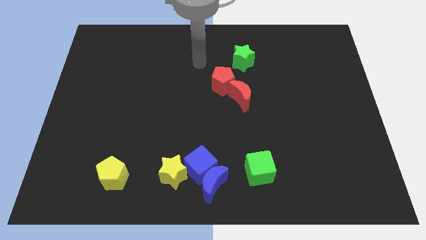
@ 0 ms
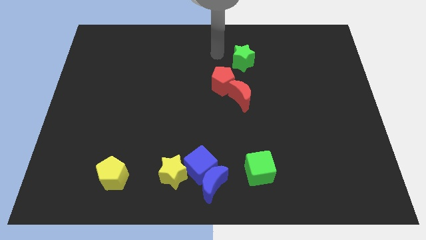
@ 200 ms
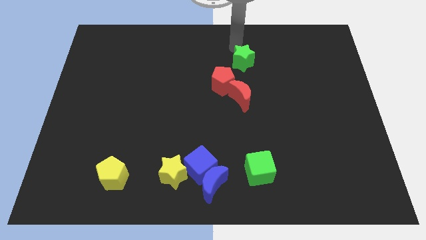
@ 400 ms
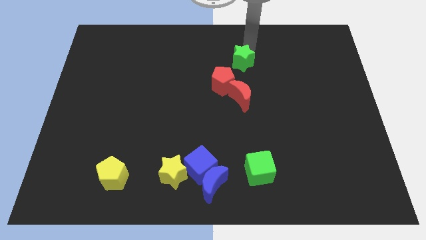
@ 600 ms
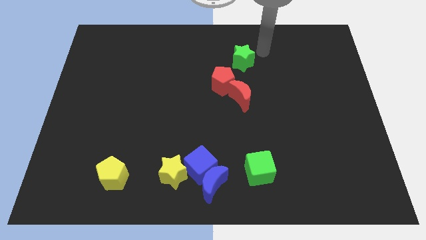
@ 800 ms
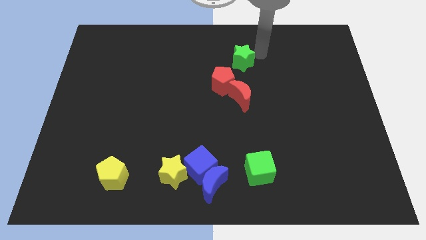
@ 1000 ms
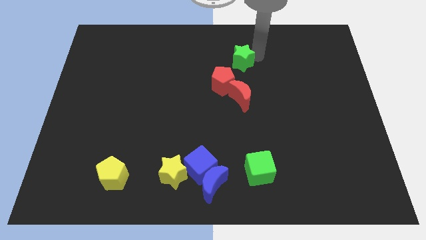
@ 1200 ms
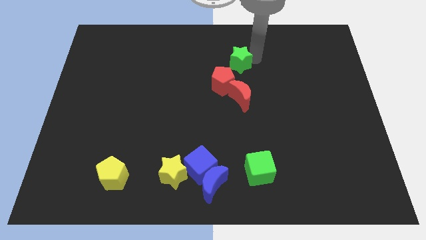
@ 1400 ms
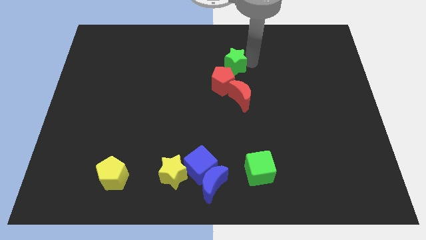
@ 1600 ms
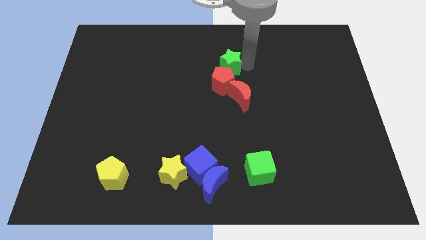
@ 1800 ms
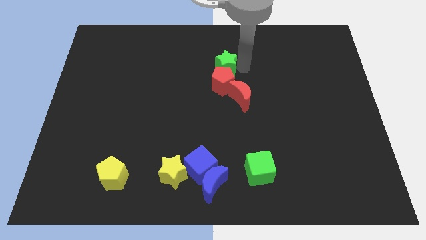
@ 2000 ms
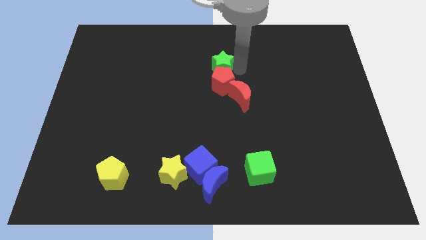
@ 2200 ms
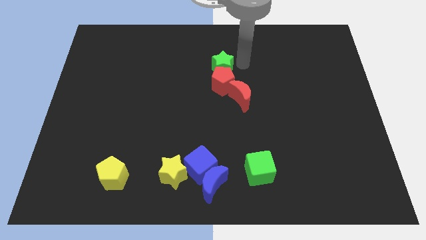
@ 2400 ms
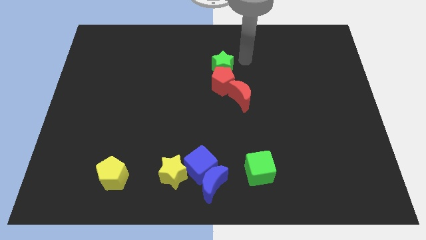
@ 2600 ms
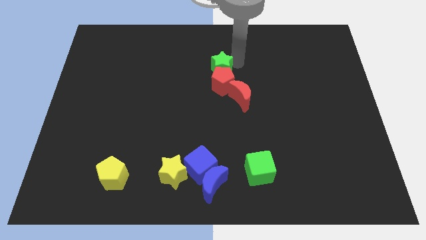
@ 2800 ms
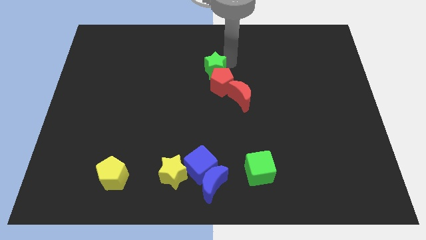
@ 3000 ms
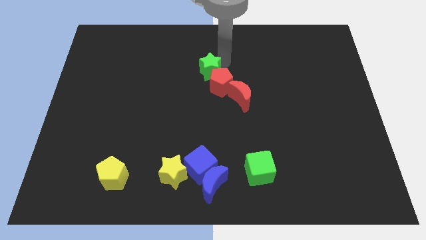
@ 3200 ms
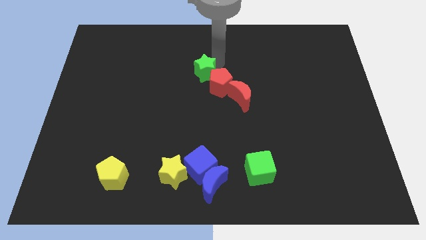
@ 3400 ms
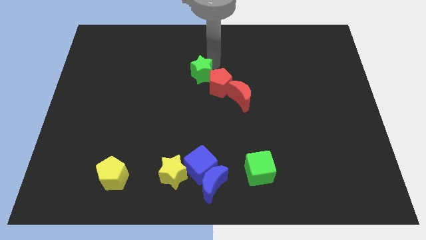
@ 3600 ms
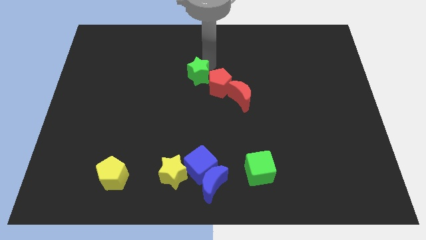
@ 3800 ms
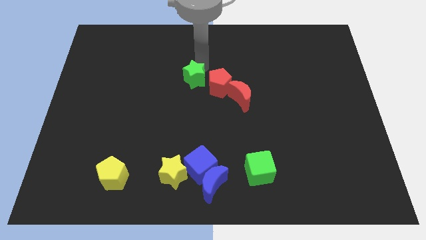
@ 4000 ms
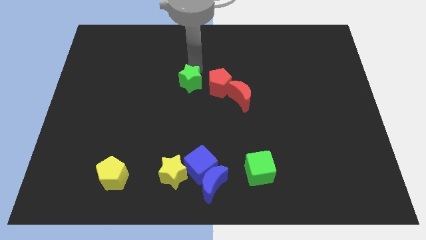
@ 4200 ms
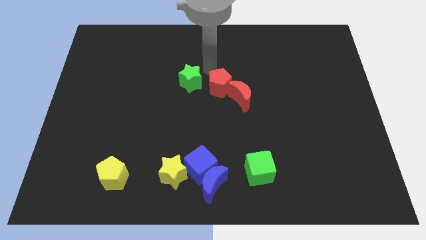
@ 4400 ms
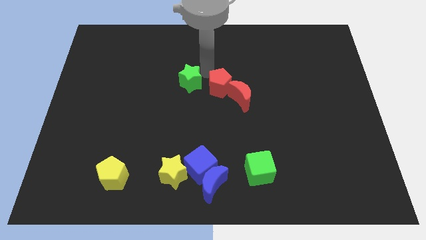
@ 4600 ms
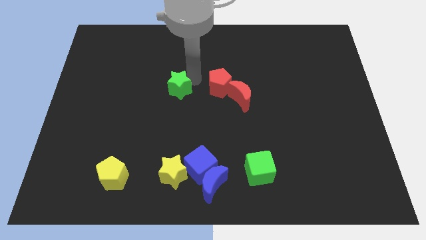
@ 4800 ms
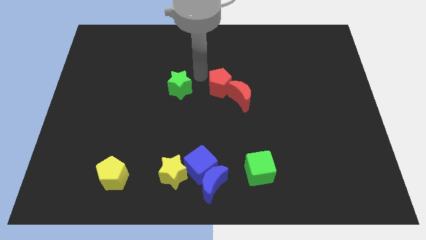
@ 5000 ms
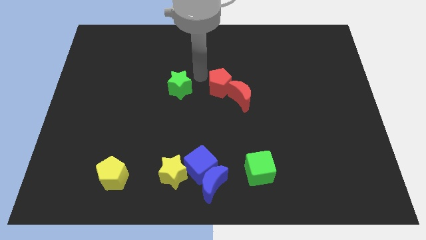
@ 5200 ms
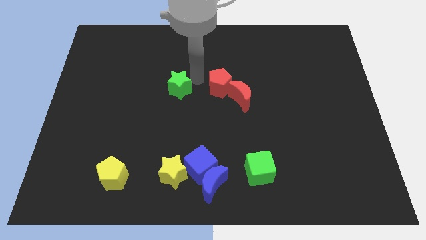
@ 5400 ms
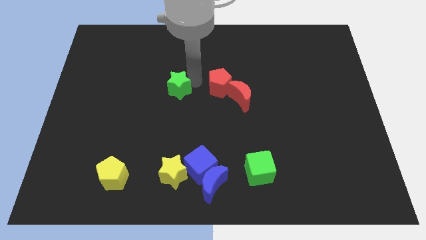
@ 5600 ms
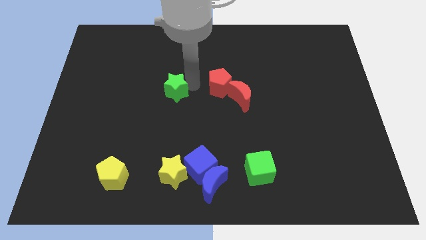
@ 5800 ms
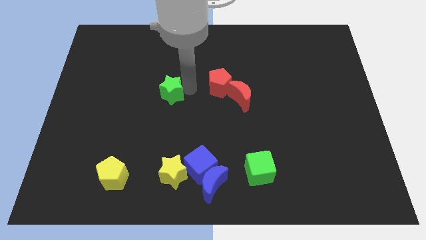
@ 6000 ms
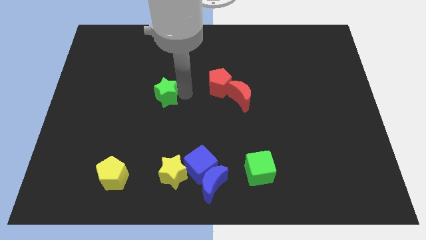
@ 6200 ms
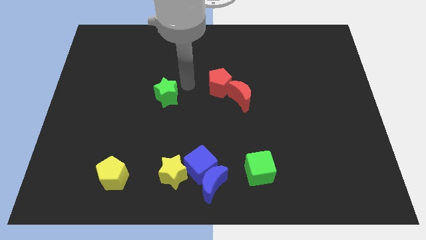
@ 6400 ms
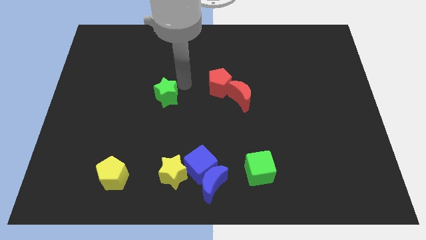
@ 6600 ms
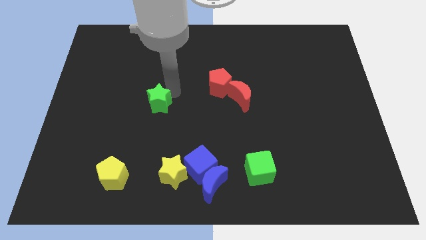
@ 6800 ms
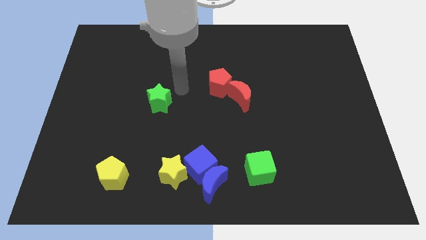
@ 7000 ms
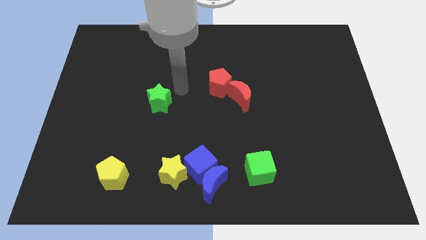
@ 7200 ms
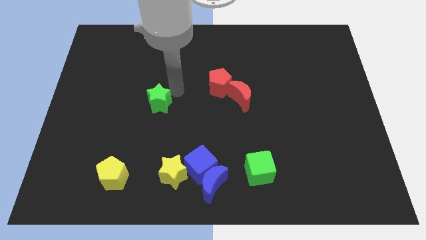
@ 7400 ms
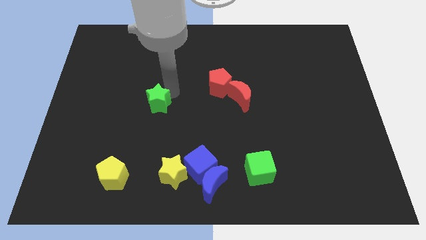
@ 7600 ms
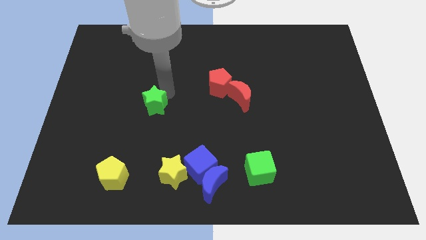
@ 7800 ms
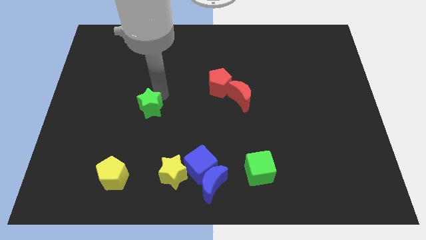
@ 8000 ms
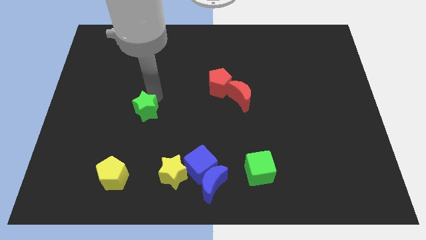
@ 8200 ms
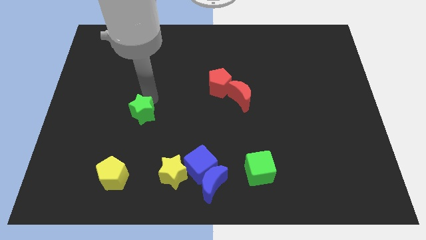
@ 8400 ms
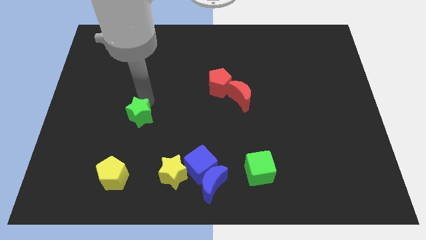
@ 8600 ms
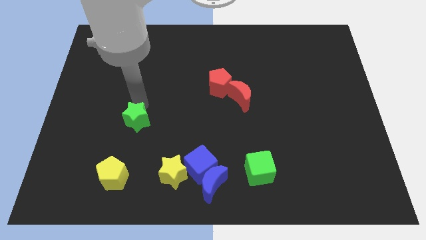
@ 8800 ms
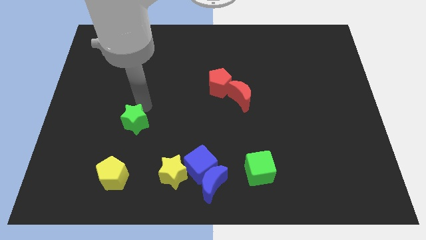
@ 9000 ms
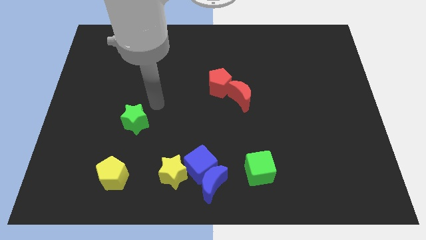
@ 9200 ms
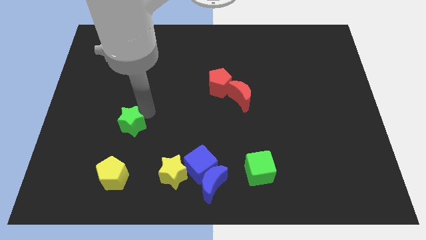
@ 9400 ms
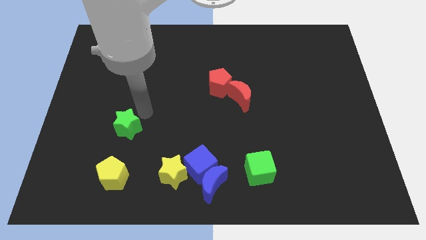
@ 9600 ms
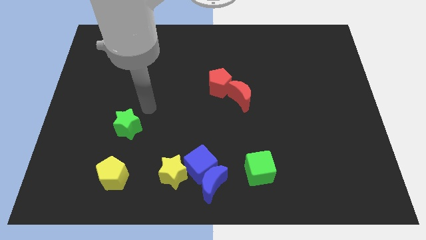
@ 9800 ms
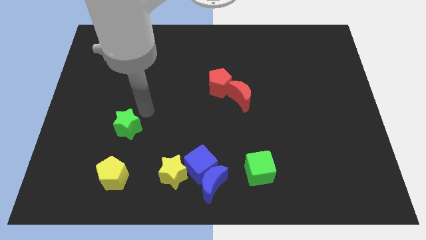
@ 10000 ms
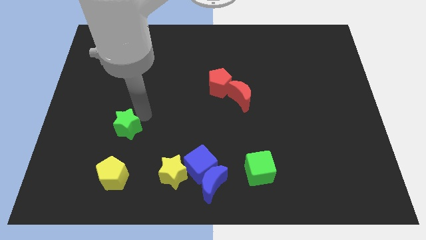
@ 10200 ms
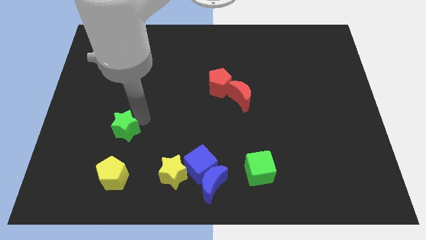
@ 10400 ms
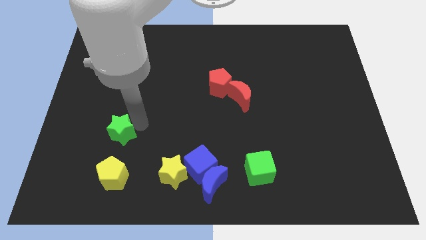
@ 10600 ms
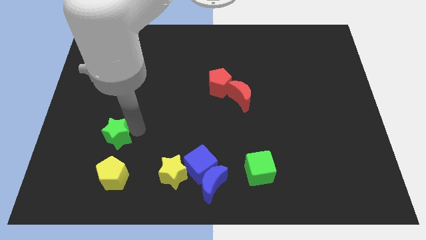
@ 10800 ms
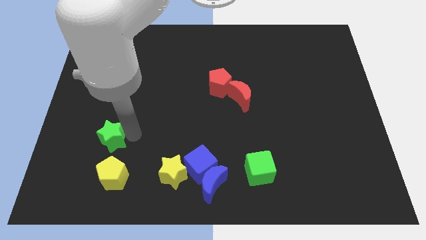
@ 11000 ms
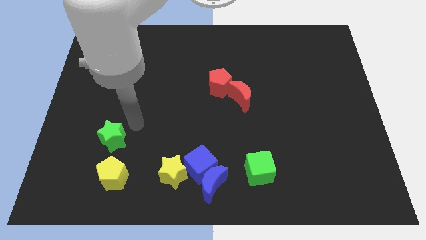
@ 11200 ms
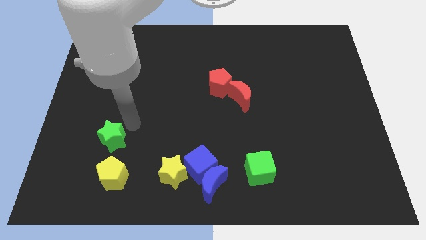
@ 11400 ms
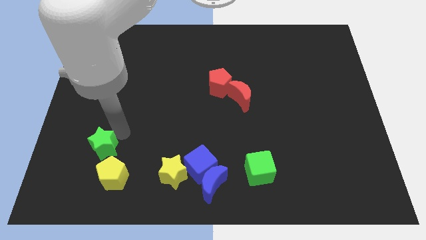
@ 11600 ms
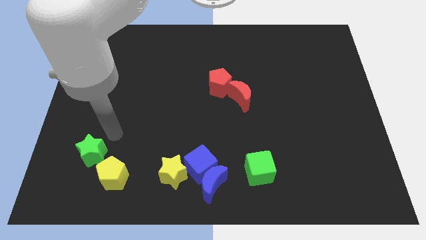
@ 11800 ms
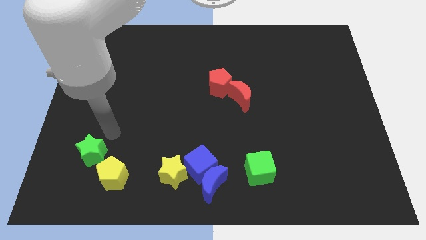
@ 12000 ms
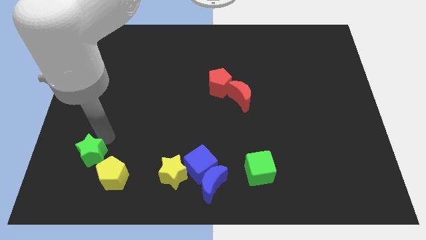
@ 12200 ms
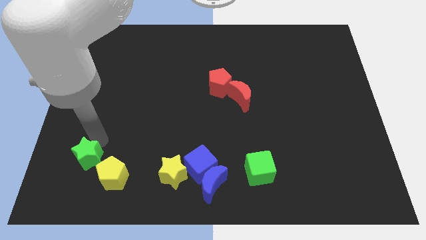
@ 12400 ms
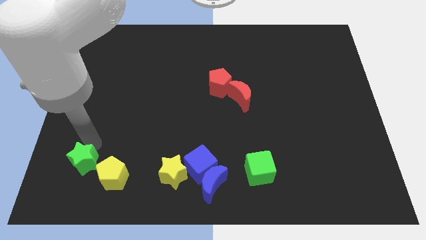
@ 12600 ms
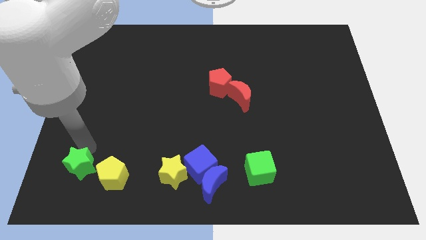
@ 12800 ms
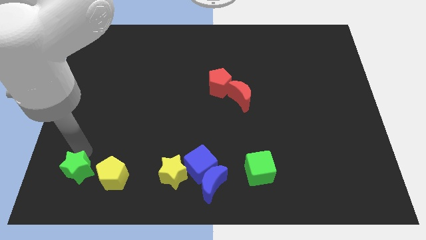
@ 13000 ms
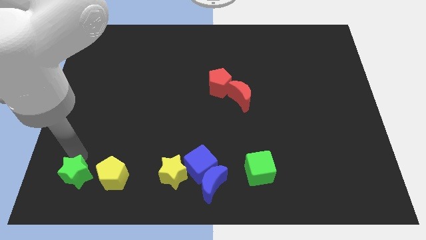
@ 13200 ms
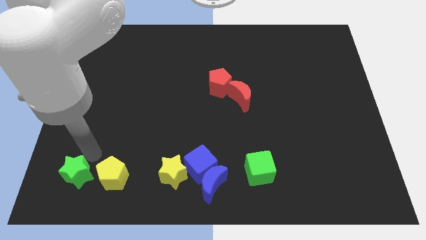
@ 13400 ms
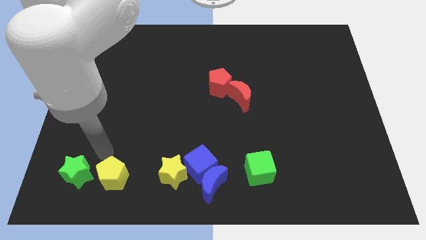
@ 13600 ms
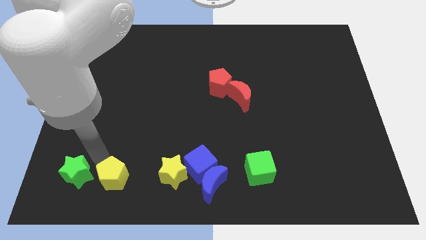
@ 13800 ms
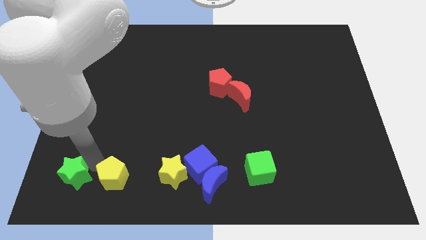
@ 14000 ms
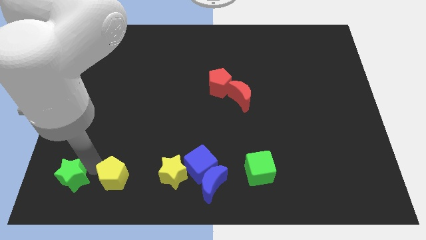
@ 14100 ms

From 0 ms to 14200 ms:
move the green star to the bottom left corner
